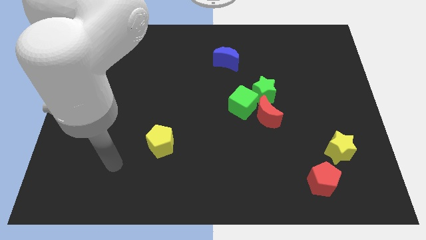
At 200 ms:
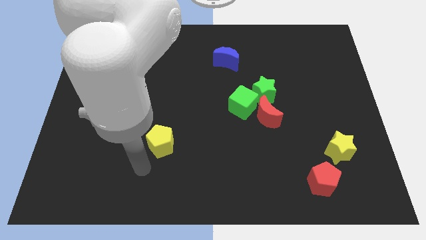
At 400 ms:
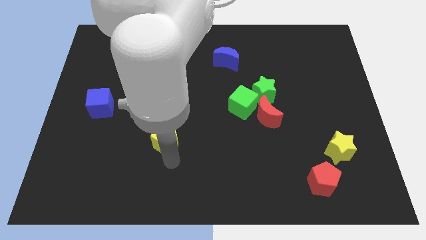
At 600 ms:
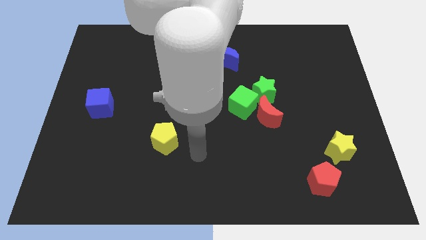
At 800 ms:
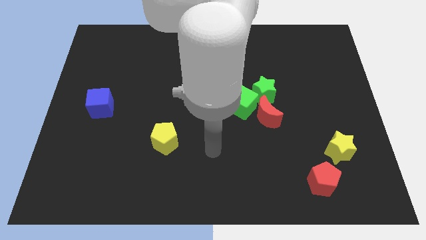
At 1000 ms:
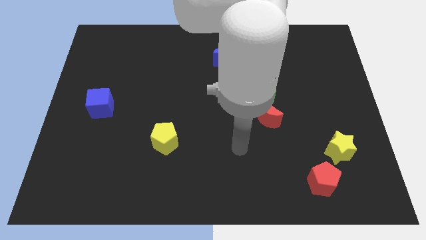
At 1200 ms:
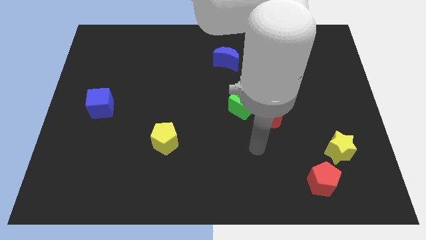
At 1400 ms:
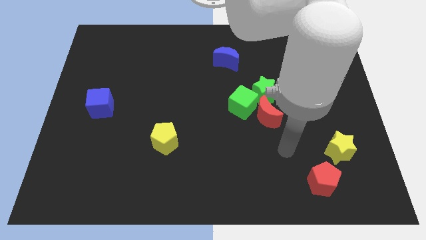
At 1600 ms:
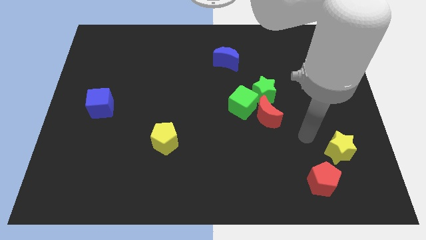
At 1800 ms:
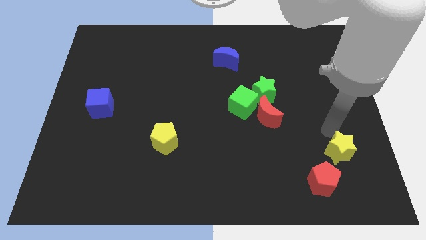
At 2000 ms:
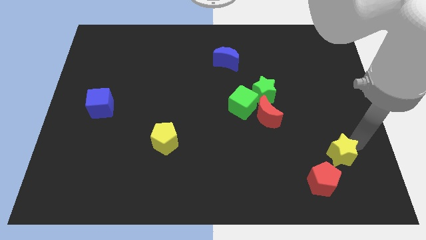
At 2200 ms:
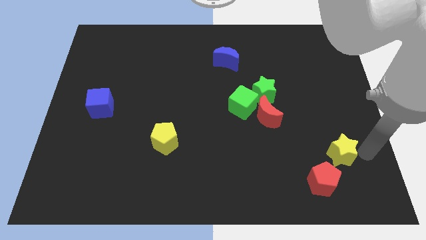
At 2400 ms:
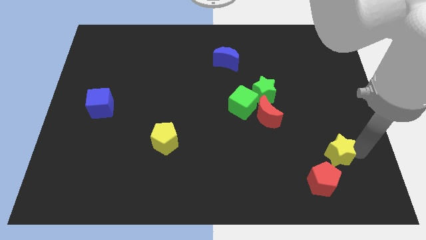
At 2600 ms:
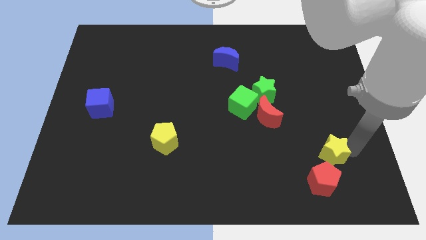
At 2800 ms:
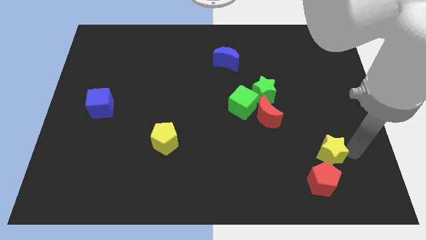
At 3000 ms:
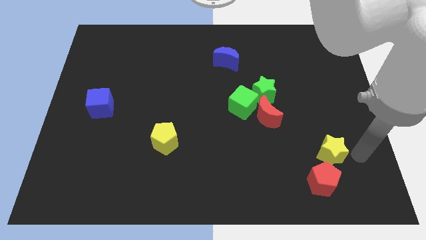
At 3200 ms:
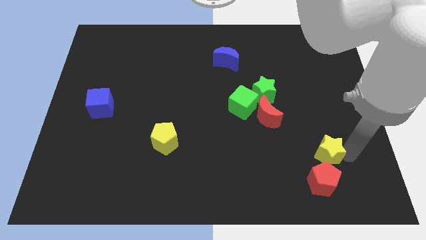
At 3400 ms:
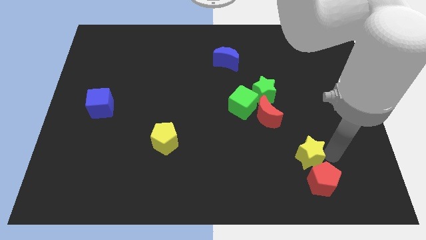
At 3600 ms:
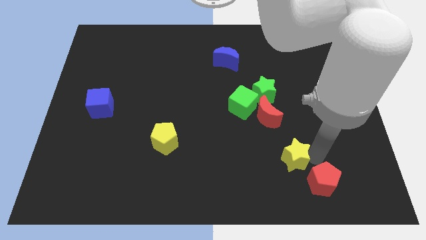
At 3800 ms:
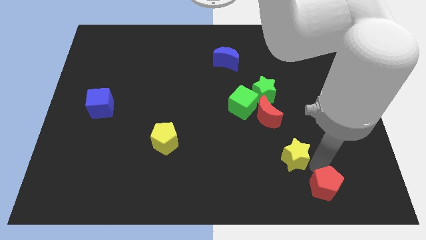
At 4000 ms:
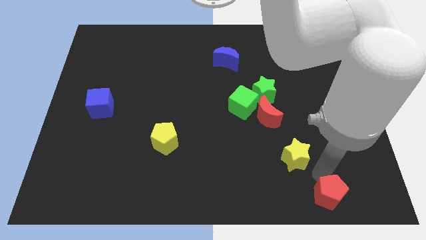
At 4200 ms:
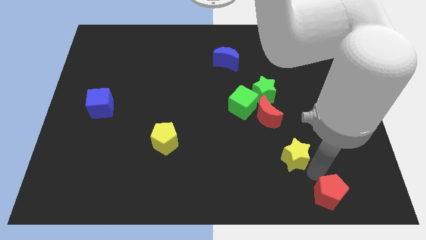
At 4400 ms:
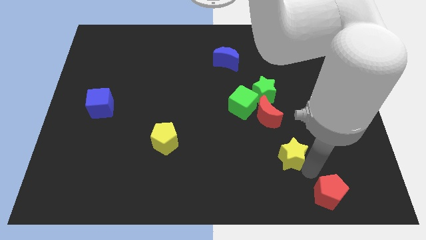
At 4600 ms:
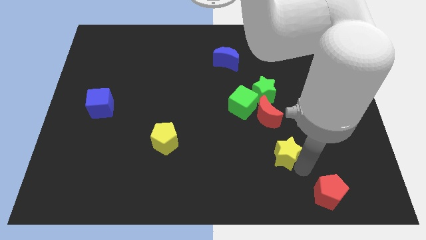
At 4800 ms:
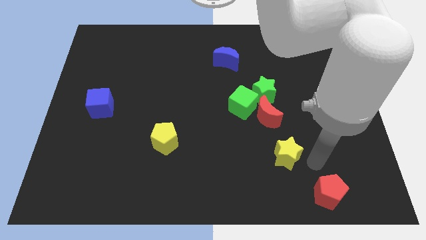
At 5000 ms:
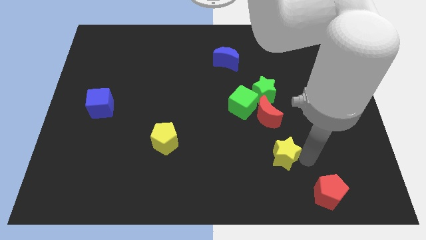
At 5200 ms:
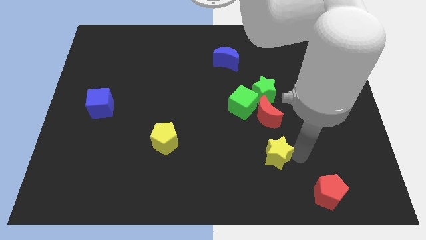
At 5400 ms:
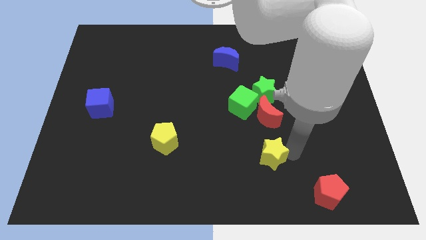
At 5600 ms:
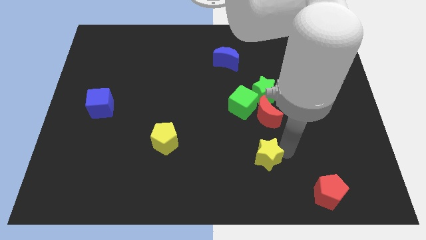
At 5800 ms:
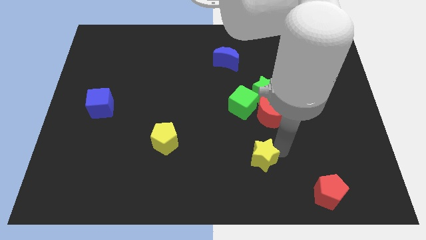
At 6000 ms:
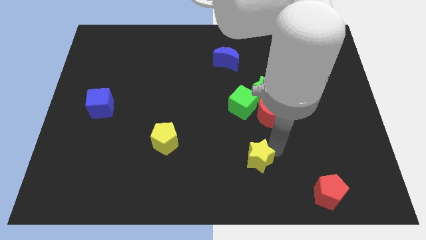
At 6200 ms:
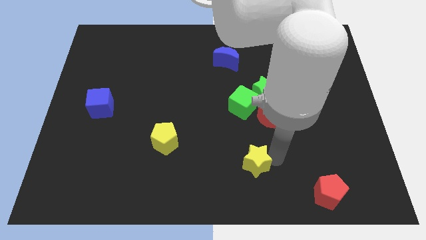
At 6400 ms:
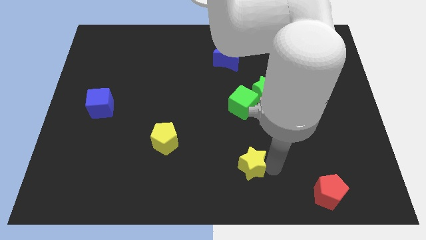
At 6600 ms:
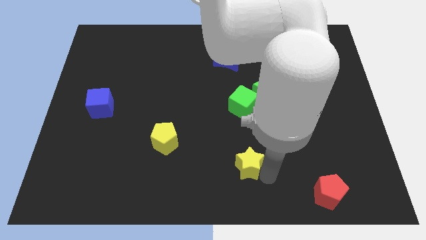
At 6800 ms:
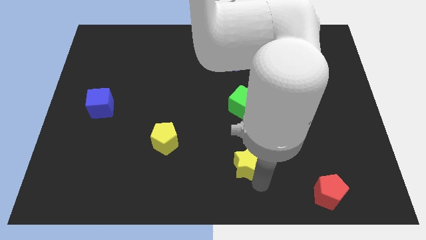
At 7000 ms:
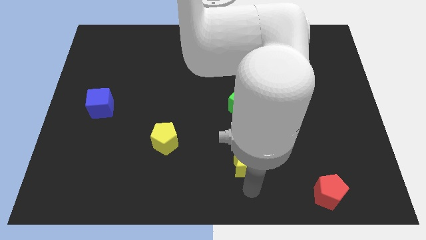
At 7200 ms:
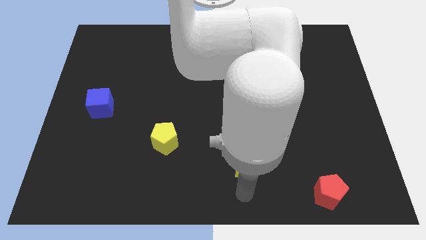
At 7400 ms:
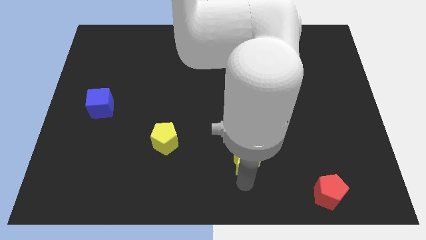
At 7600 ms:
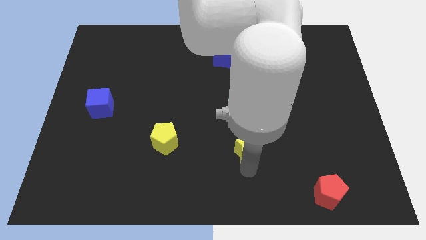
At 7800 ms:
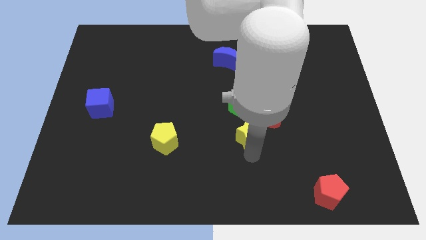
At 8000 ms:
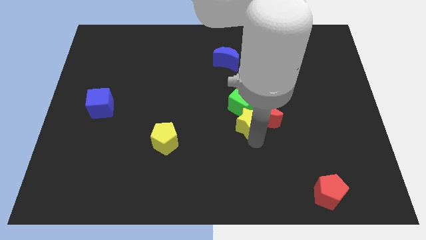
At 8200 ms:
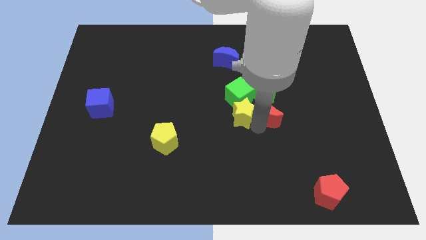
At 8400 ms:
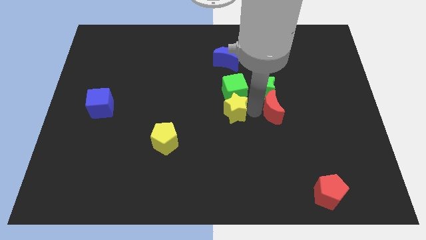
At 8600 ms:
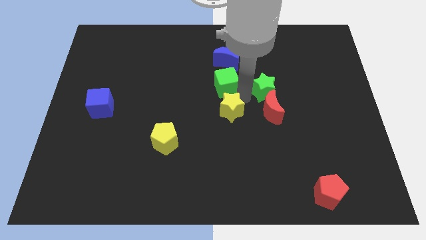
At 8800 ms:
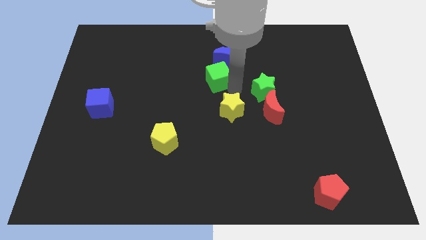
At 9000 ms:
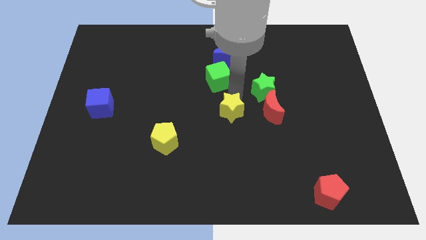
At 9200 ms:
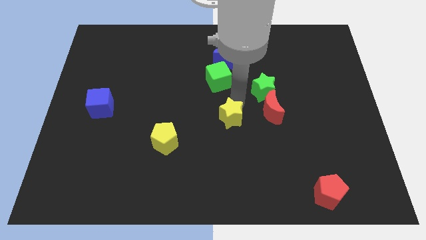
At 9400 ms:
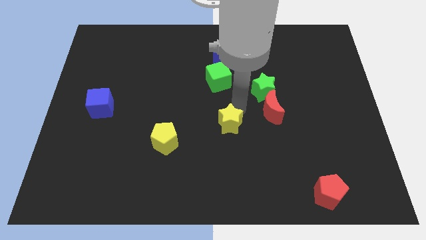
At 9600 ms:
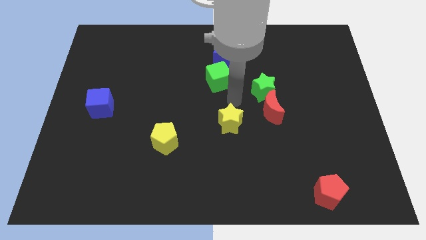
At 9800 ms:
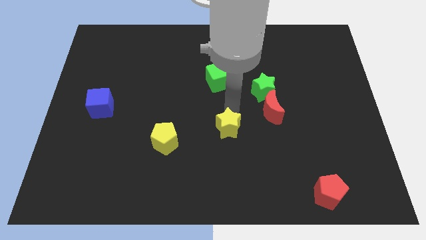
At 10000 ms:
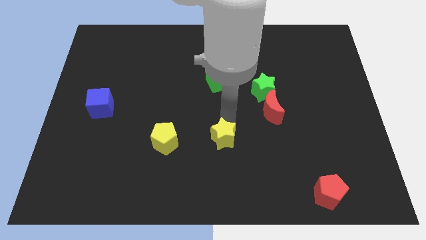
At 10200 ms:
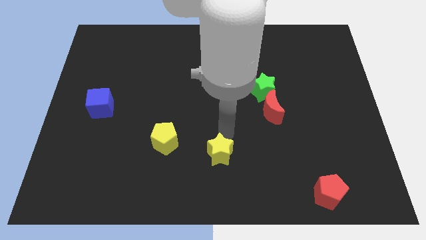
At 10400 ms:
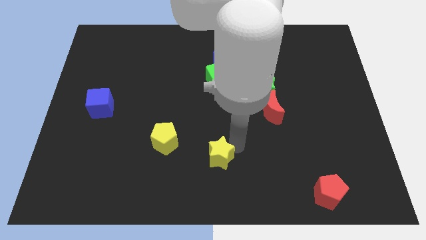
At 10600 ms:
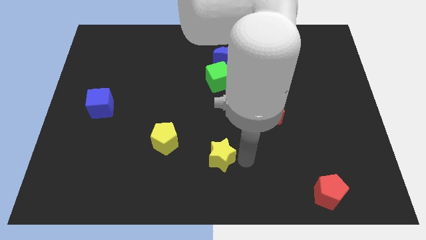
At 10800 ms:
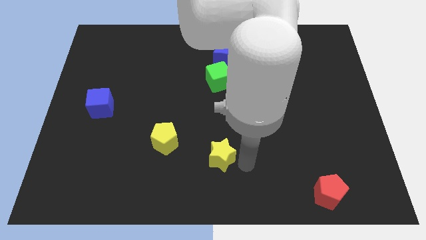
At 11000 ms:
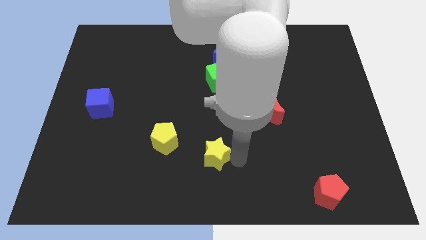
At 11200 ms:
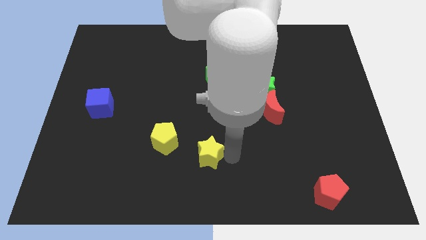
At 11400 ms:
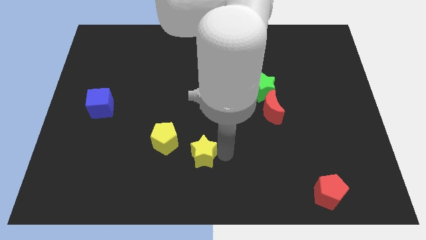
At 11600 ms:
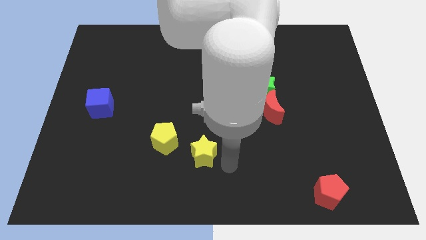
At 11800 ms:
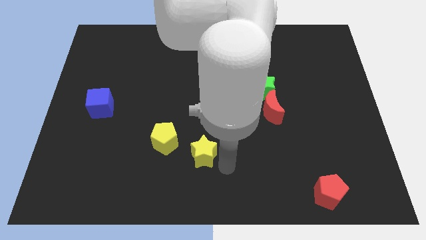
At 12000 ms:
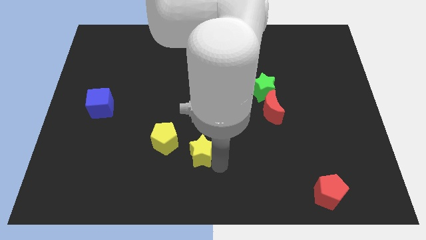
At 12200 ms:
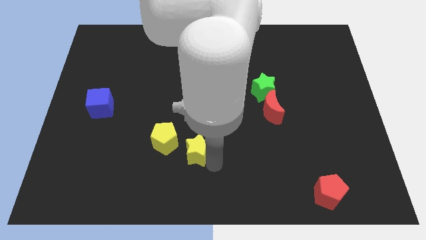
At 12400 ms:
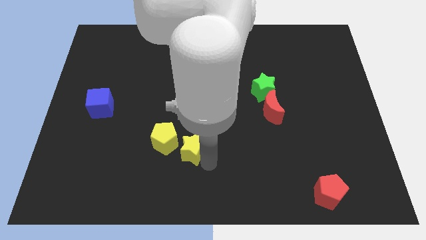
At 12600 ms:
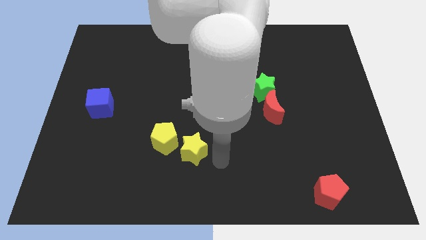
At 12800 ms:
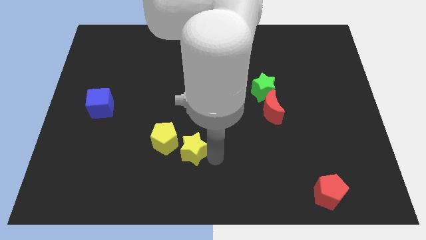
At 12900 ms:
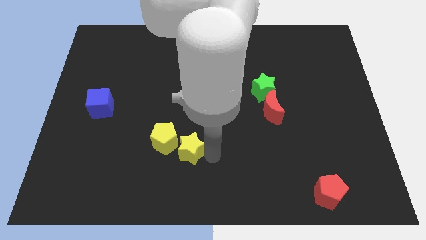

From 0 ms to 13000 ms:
push the yellow star next to the yellow pentagon

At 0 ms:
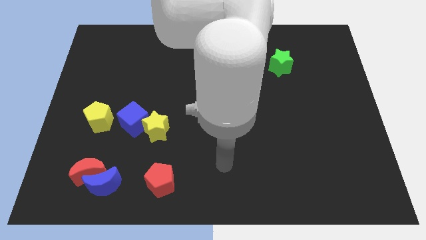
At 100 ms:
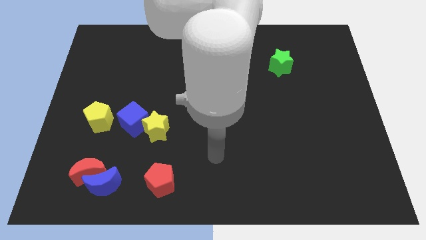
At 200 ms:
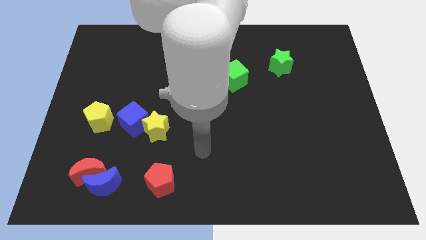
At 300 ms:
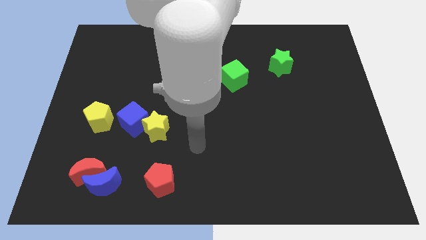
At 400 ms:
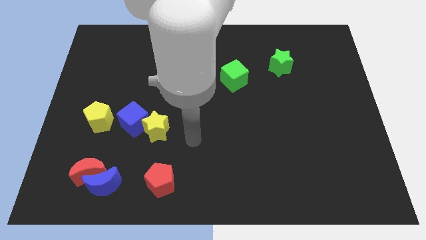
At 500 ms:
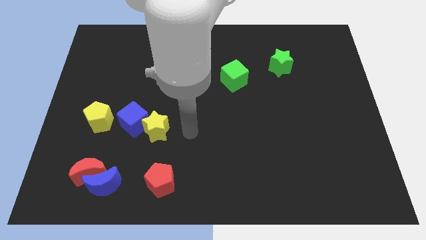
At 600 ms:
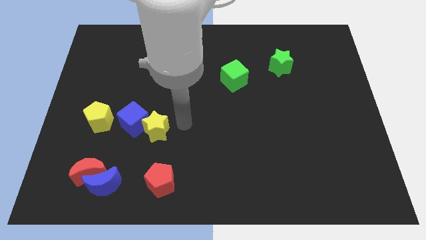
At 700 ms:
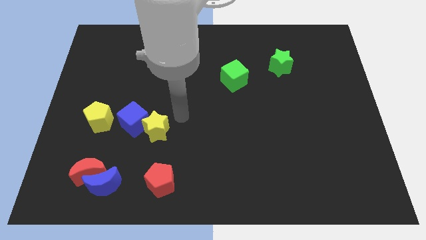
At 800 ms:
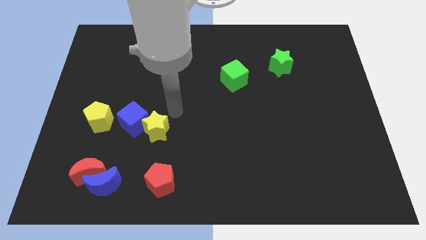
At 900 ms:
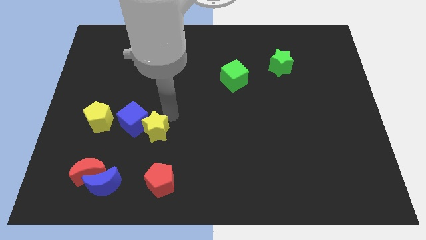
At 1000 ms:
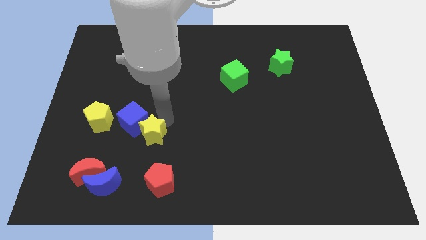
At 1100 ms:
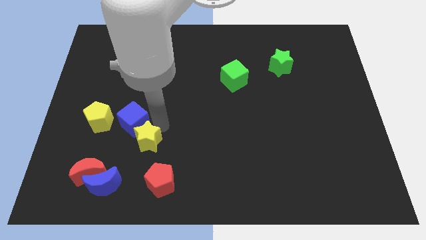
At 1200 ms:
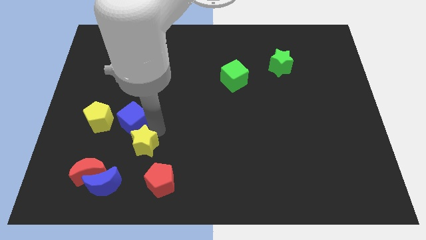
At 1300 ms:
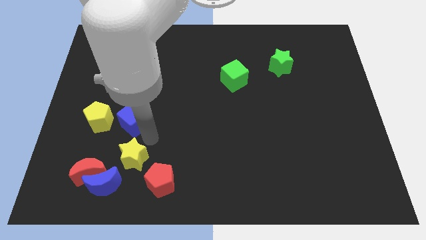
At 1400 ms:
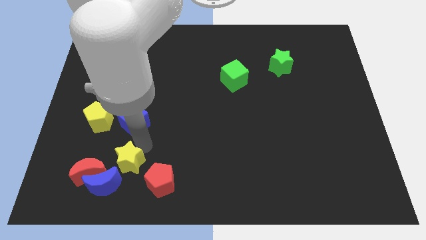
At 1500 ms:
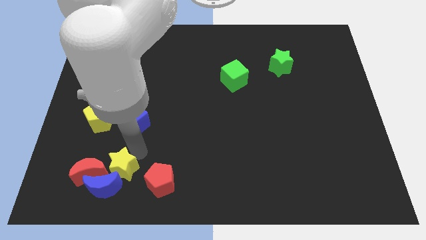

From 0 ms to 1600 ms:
move the yellow star close to the blue moon
